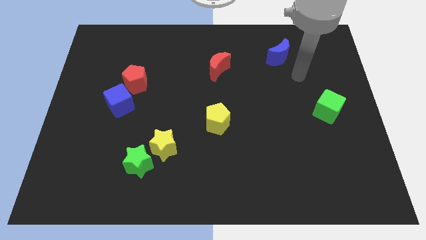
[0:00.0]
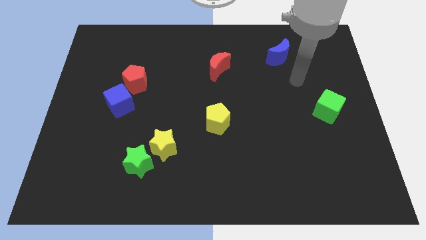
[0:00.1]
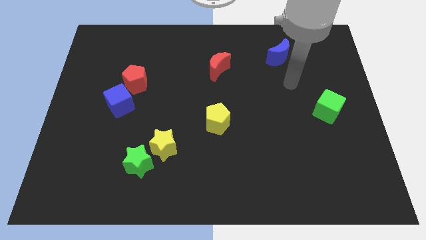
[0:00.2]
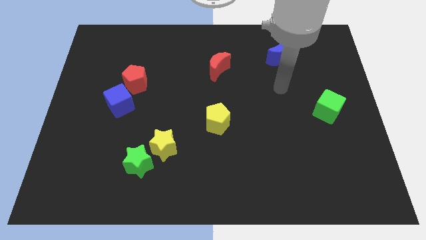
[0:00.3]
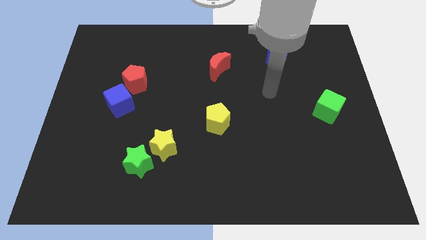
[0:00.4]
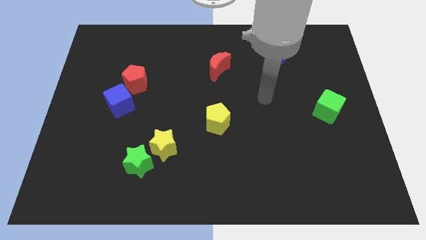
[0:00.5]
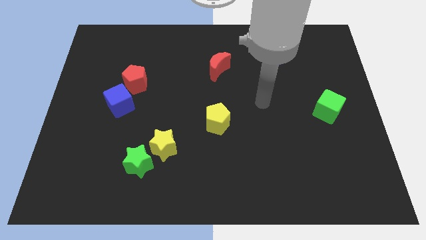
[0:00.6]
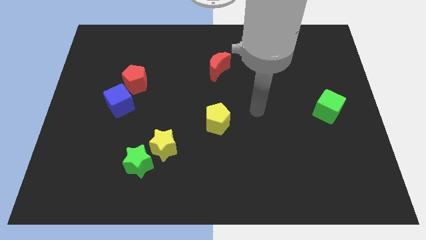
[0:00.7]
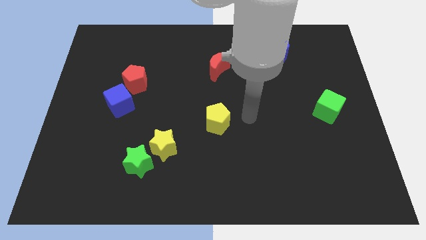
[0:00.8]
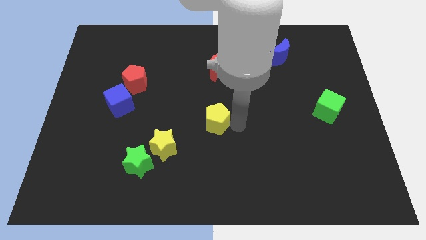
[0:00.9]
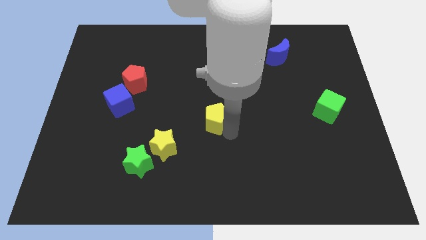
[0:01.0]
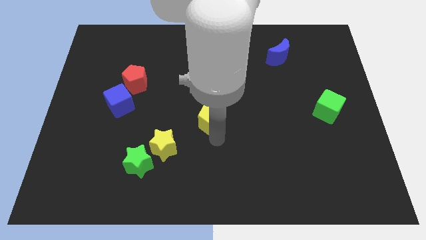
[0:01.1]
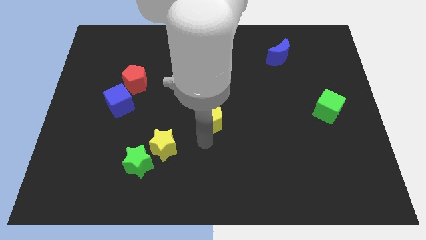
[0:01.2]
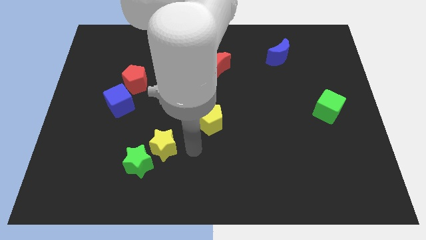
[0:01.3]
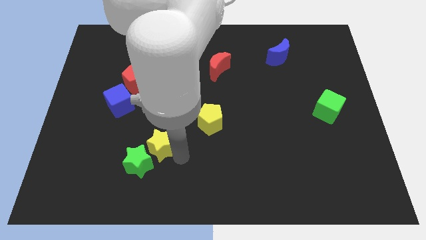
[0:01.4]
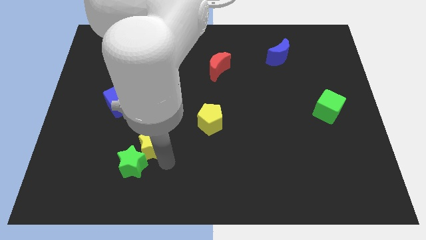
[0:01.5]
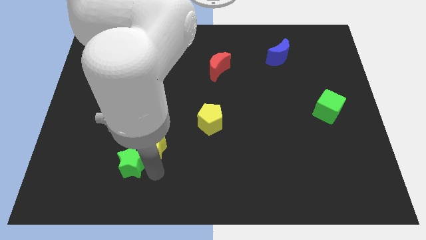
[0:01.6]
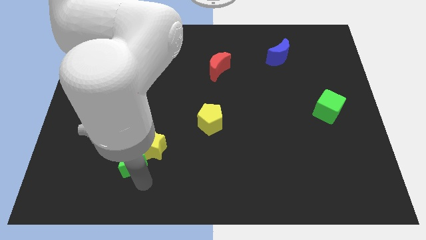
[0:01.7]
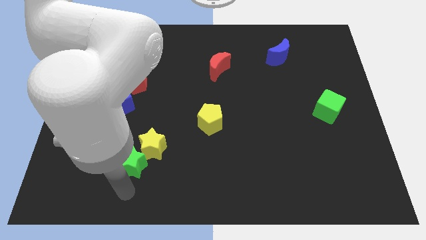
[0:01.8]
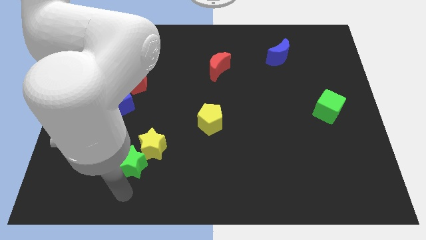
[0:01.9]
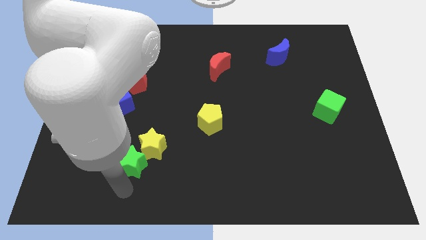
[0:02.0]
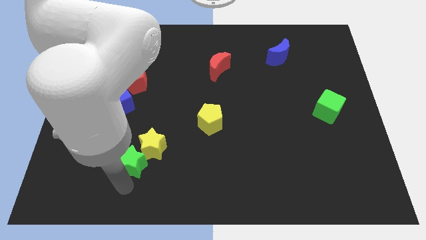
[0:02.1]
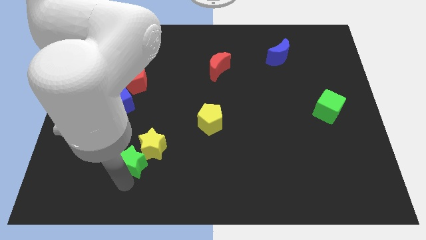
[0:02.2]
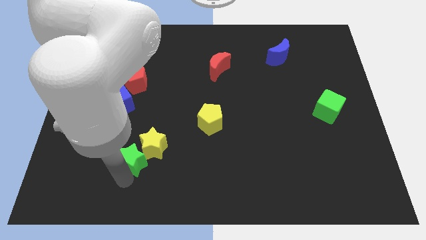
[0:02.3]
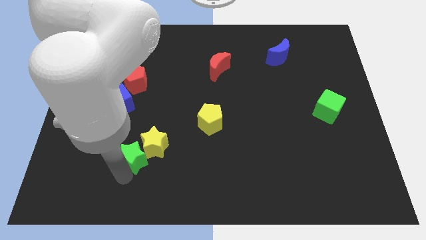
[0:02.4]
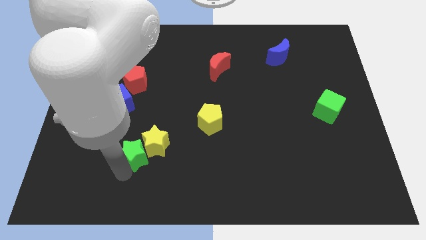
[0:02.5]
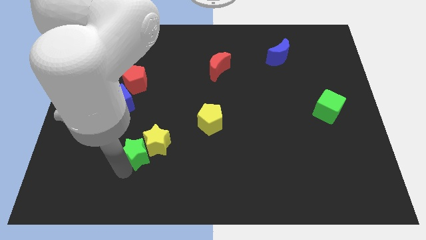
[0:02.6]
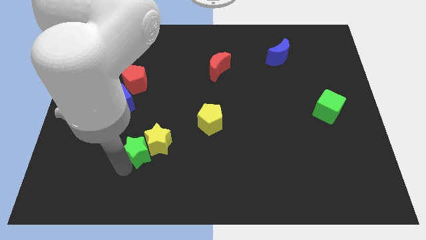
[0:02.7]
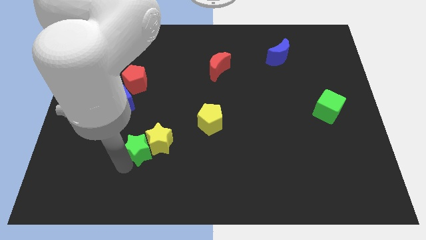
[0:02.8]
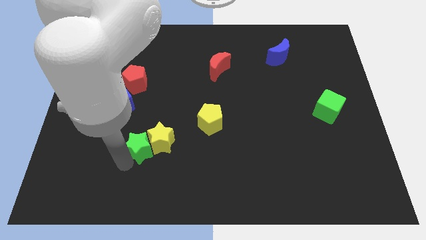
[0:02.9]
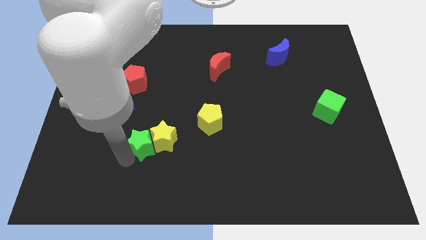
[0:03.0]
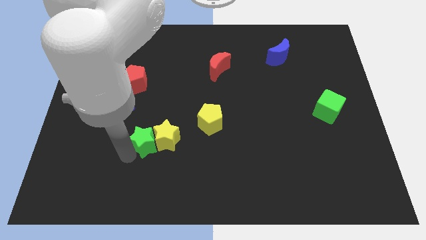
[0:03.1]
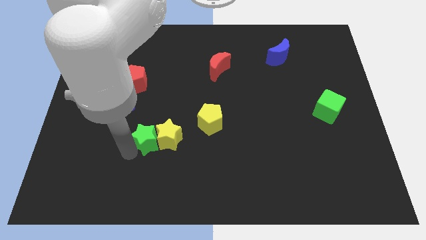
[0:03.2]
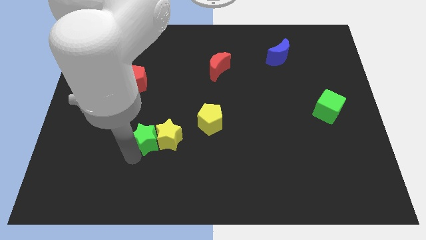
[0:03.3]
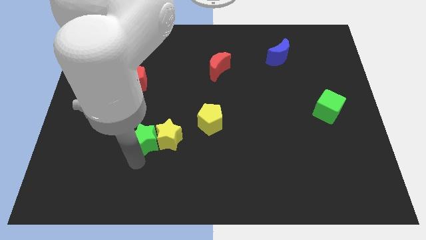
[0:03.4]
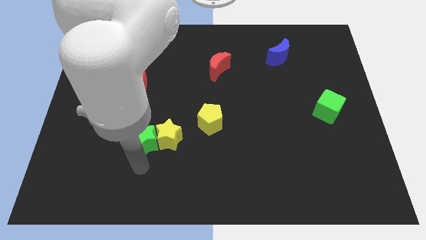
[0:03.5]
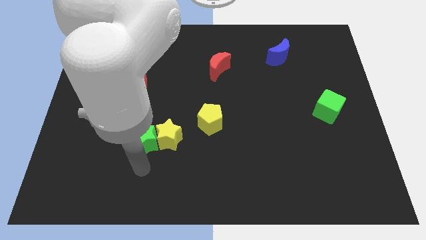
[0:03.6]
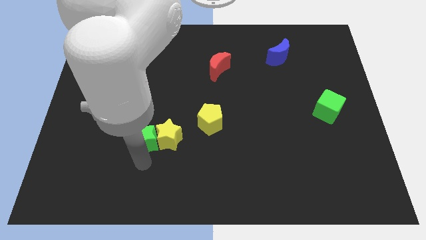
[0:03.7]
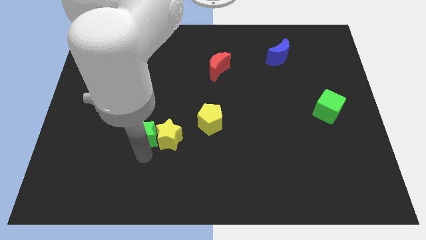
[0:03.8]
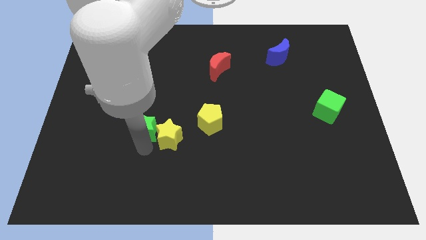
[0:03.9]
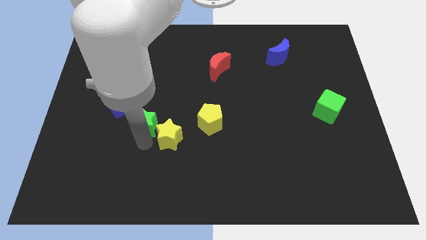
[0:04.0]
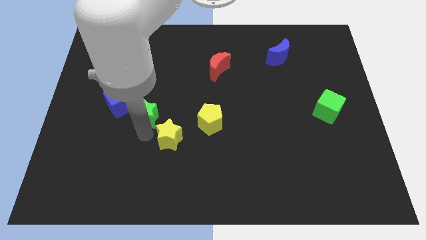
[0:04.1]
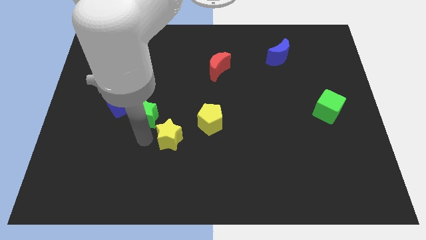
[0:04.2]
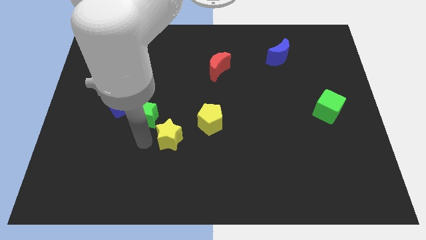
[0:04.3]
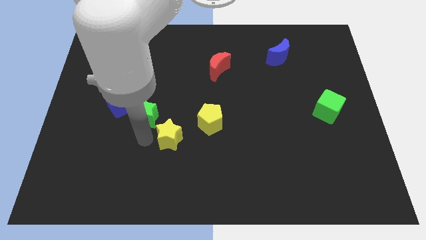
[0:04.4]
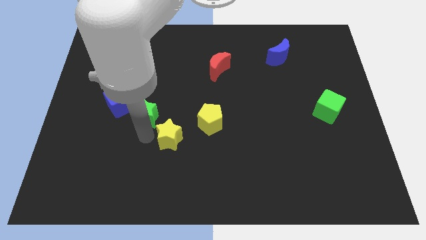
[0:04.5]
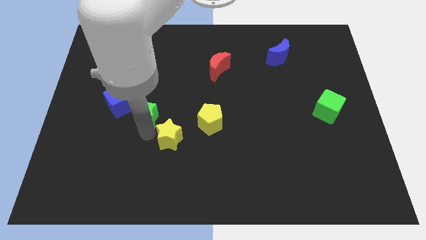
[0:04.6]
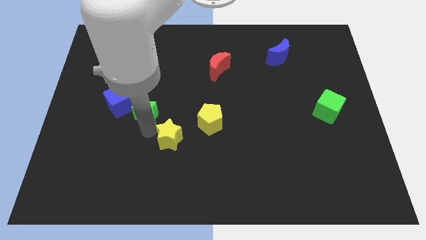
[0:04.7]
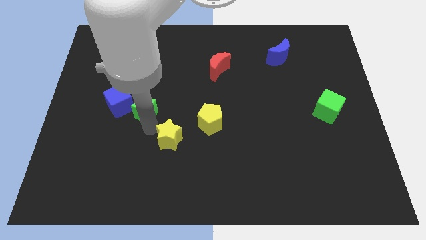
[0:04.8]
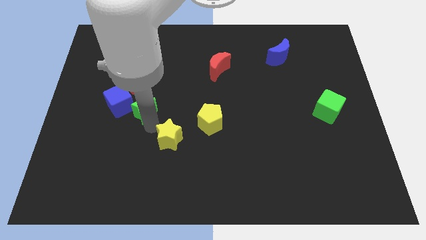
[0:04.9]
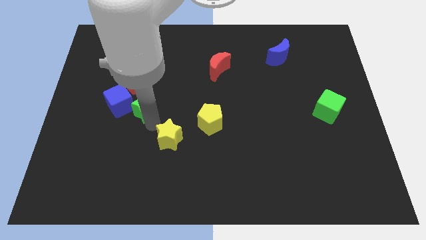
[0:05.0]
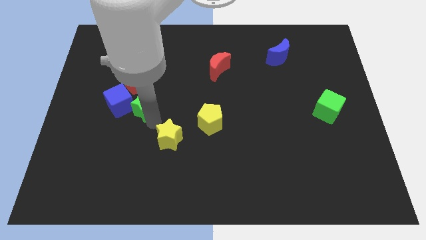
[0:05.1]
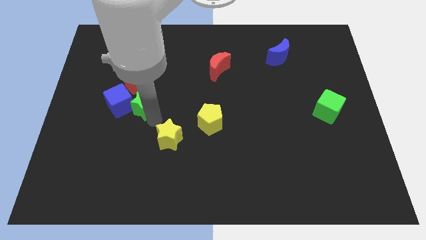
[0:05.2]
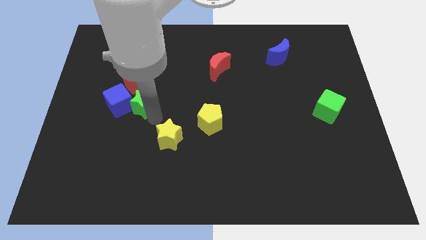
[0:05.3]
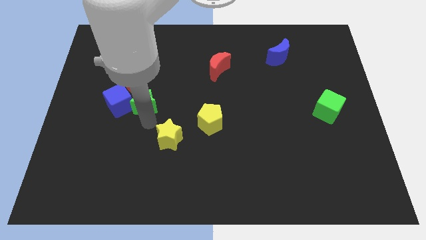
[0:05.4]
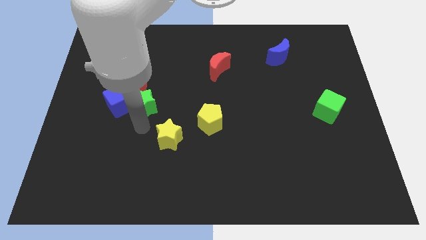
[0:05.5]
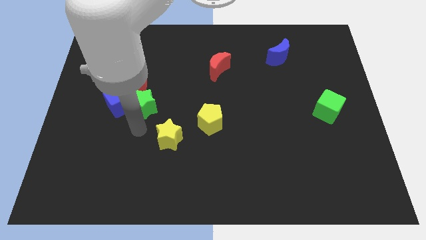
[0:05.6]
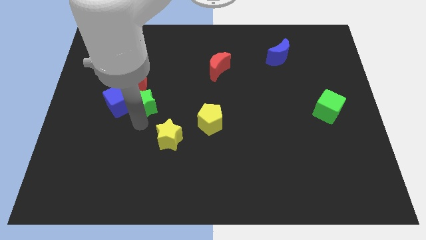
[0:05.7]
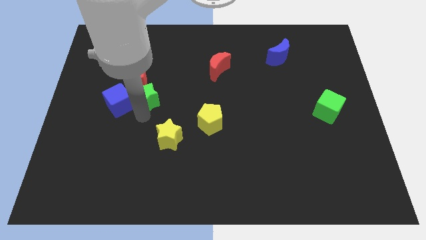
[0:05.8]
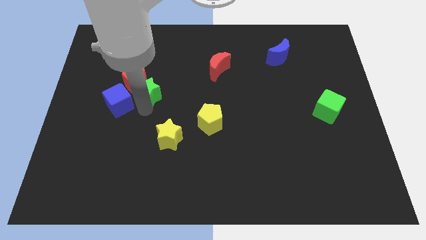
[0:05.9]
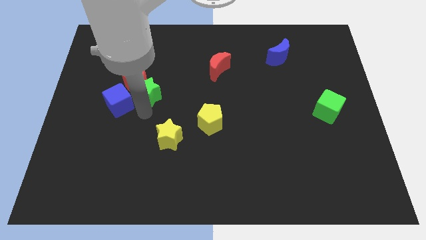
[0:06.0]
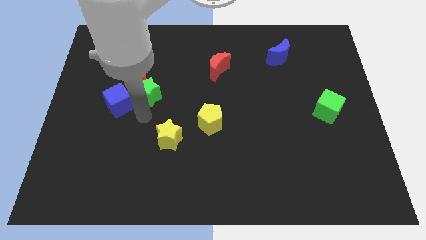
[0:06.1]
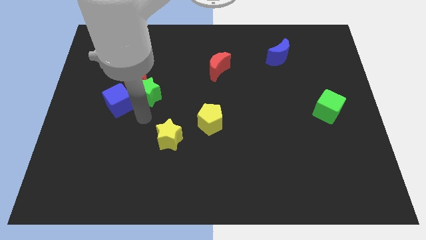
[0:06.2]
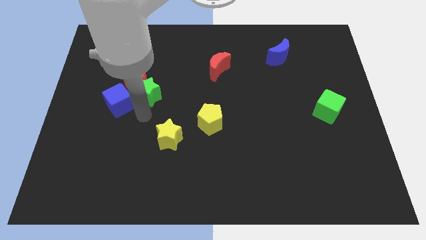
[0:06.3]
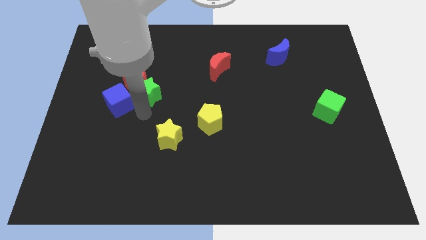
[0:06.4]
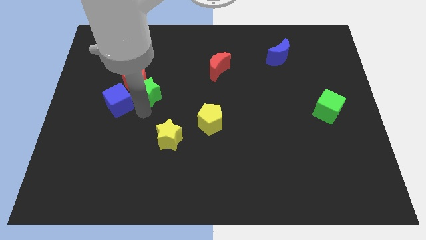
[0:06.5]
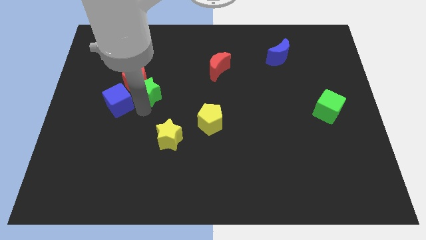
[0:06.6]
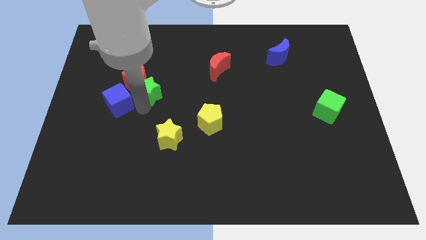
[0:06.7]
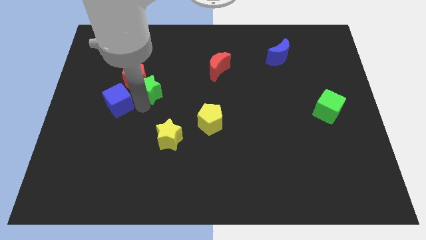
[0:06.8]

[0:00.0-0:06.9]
move the green star upwards

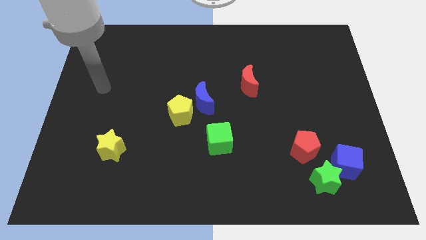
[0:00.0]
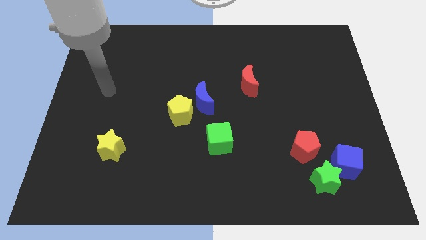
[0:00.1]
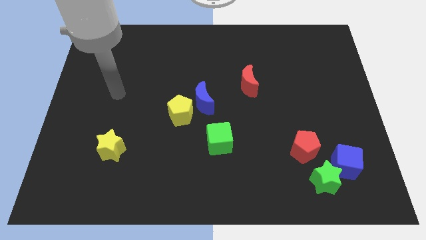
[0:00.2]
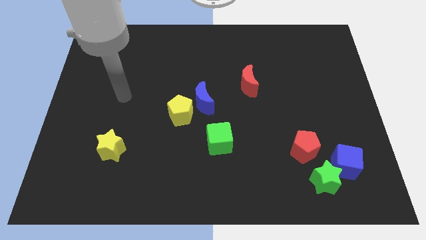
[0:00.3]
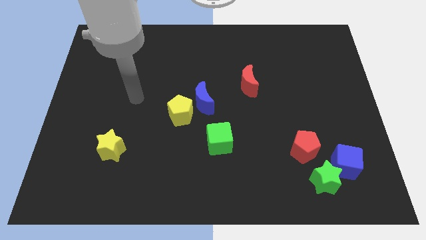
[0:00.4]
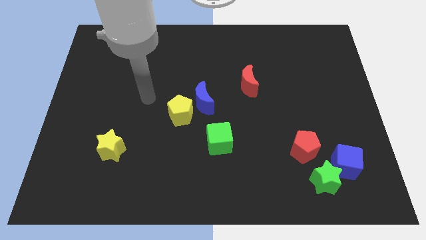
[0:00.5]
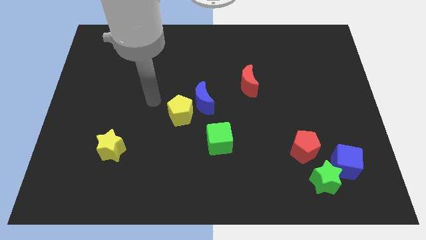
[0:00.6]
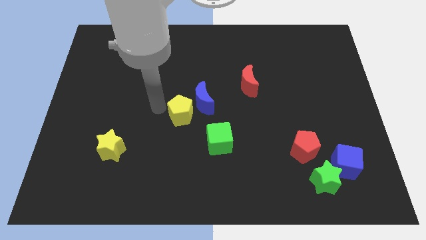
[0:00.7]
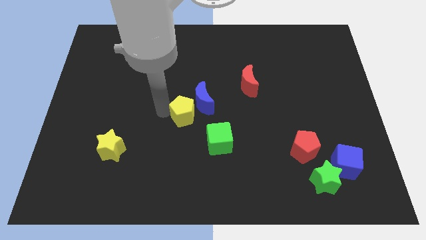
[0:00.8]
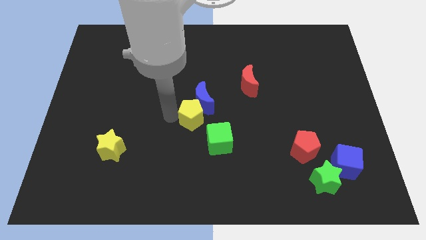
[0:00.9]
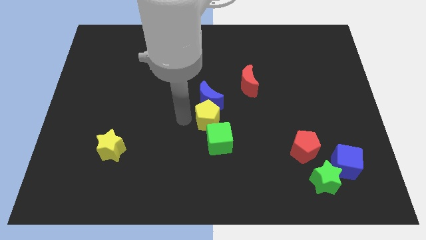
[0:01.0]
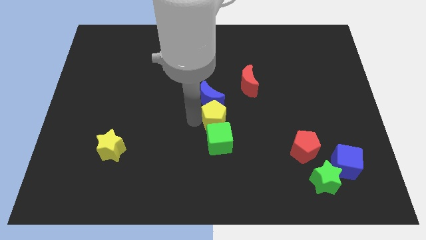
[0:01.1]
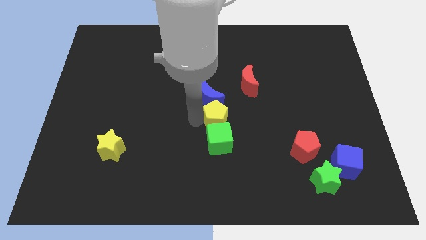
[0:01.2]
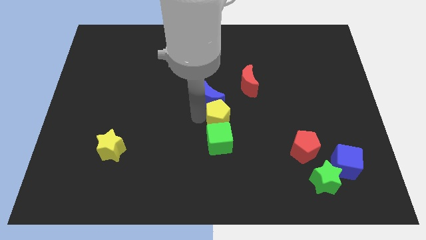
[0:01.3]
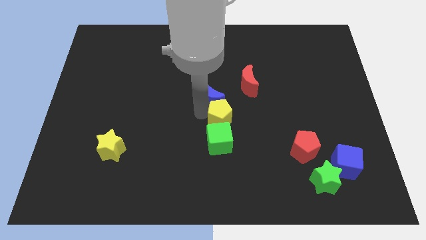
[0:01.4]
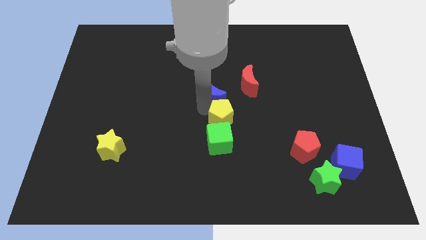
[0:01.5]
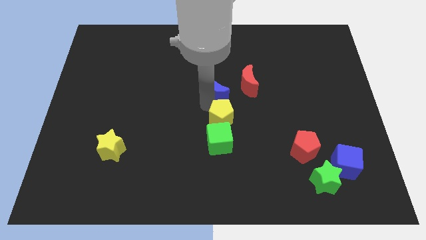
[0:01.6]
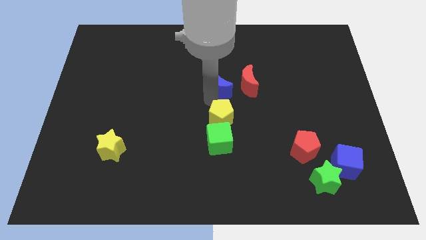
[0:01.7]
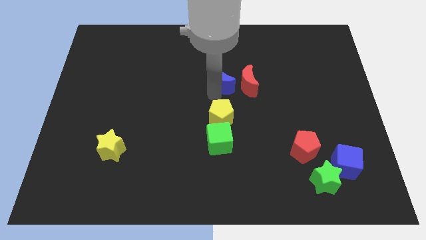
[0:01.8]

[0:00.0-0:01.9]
move the blue moon up and right diagonally a bit
